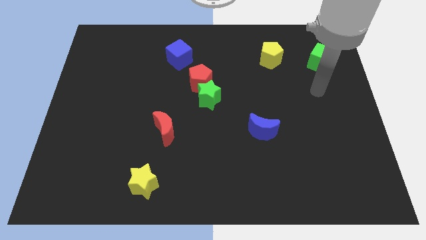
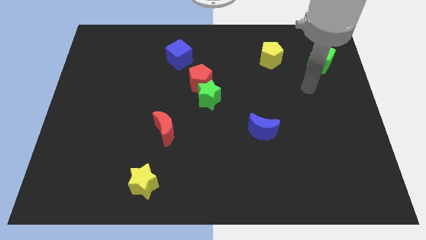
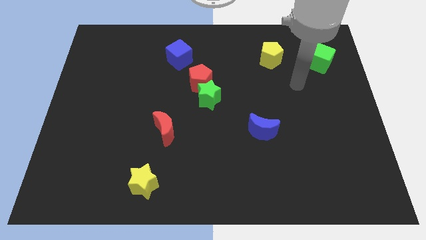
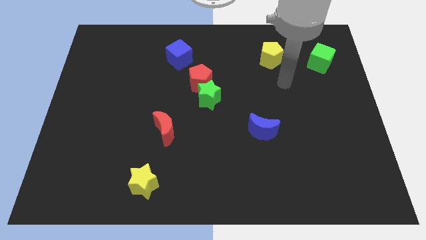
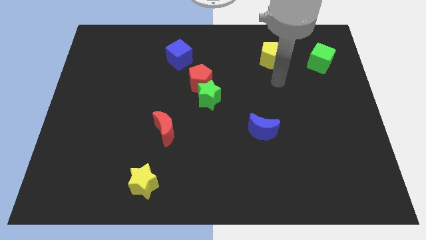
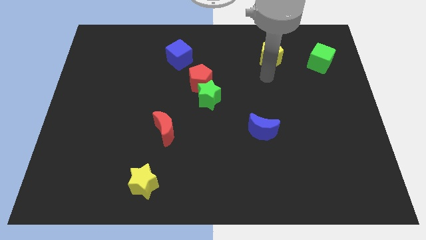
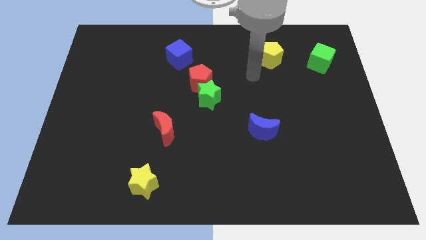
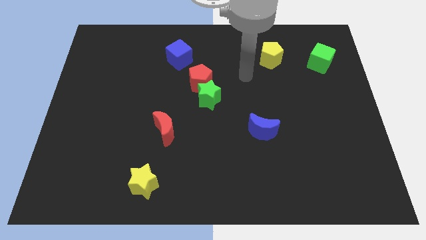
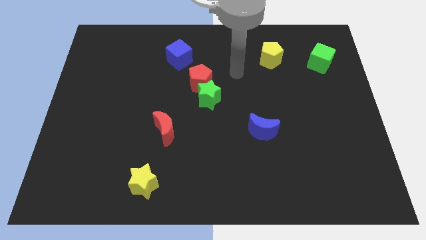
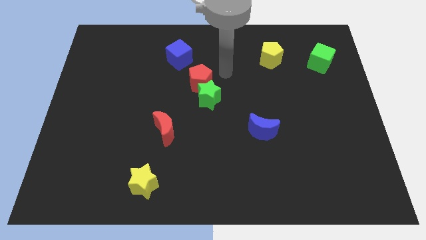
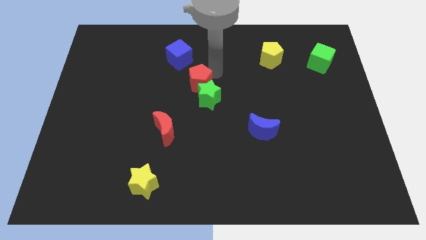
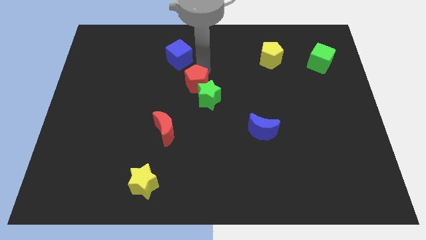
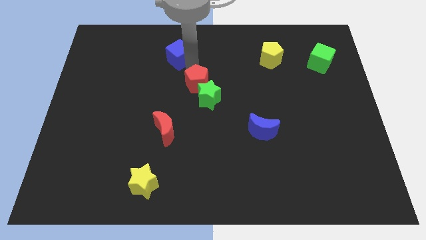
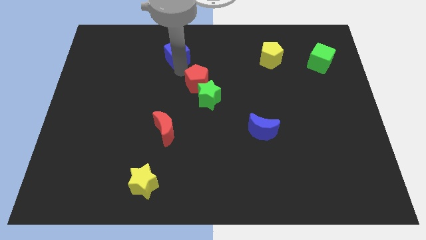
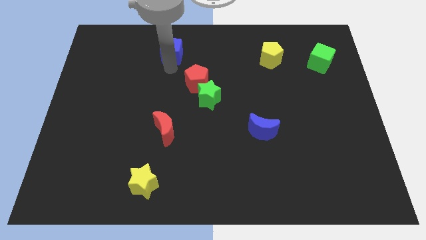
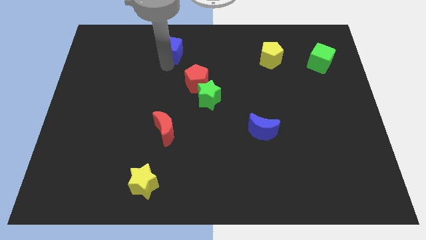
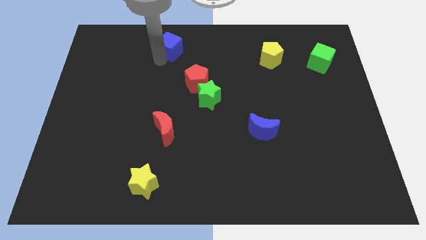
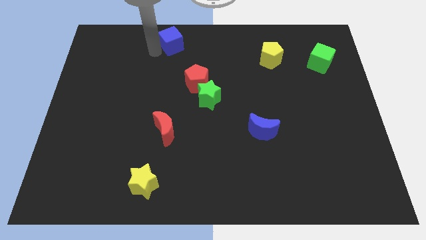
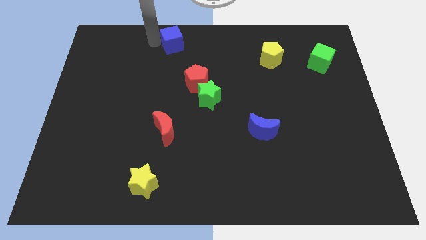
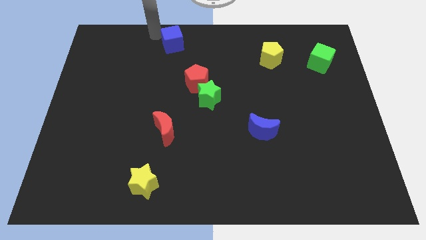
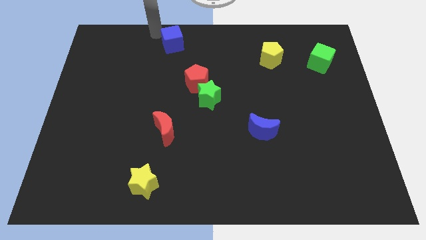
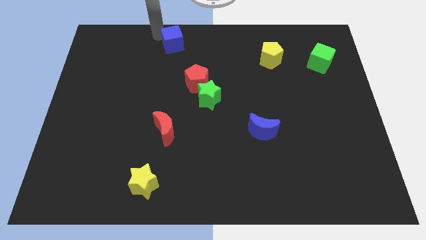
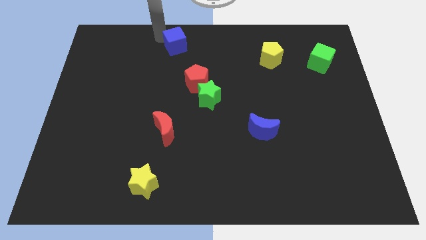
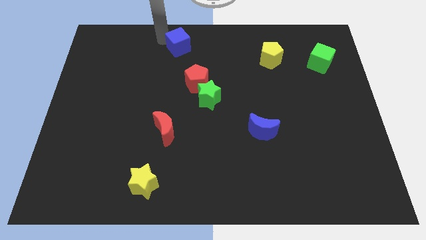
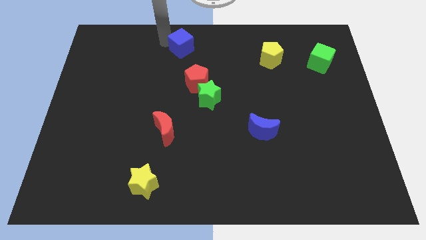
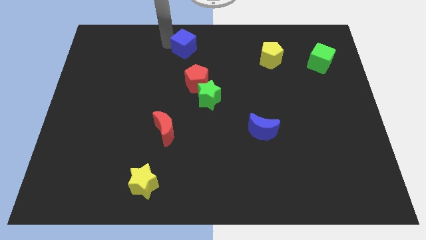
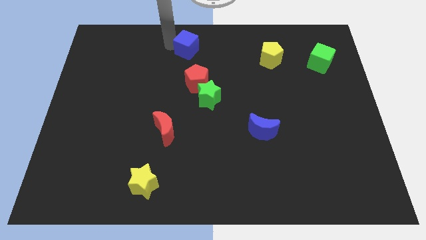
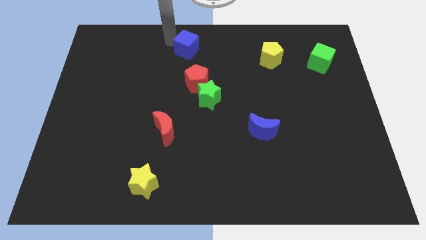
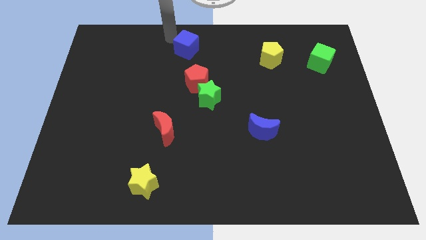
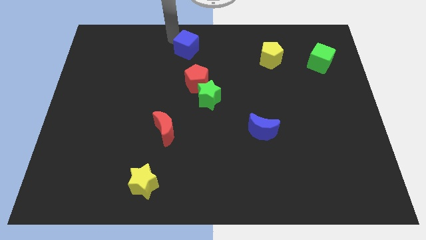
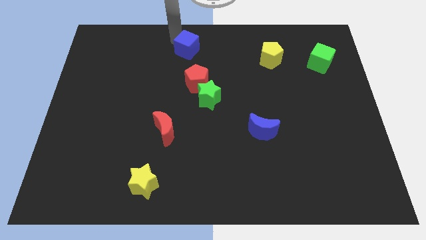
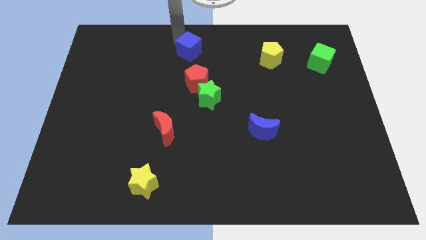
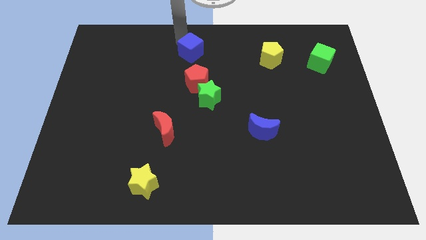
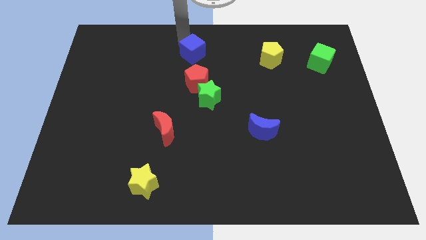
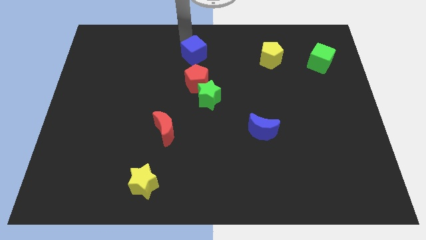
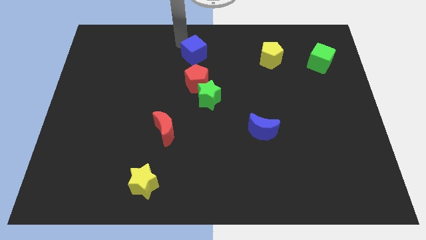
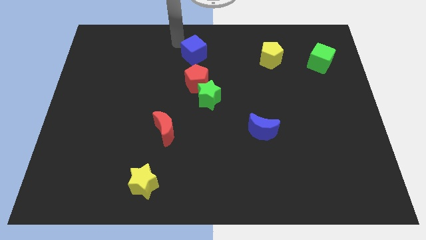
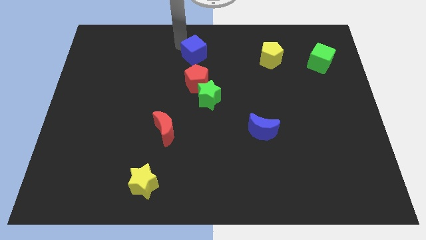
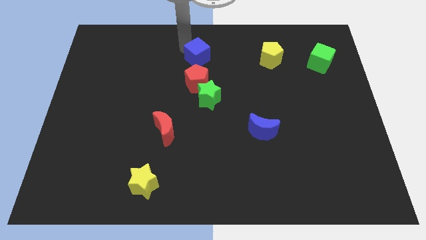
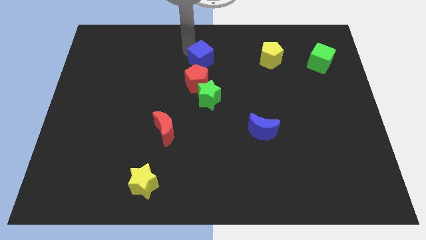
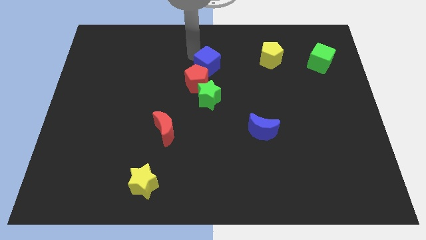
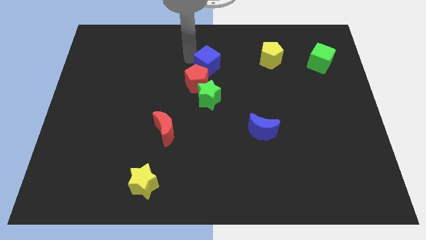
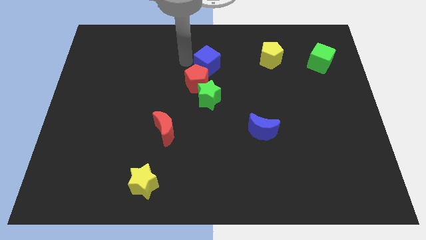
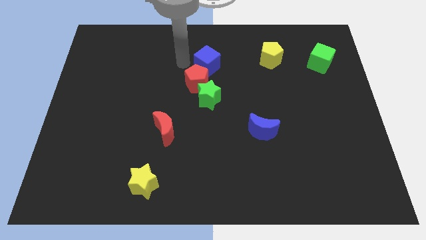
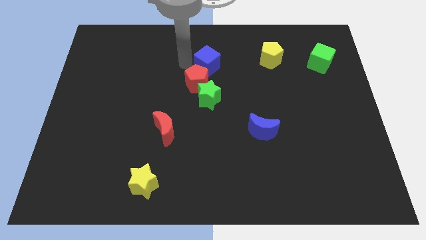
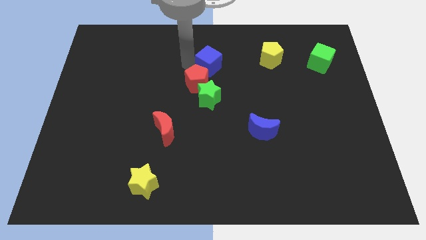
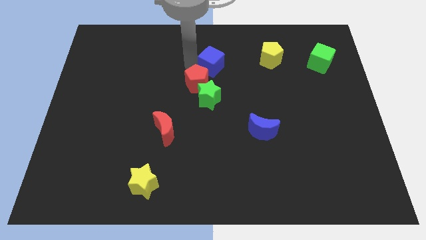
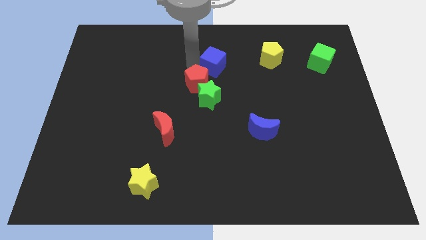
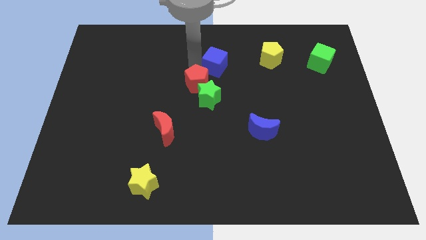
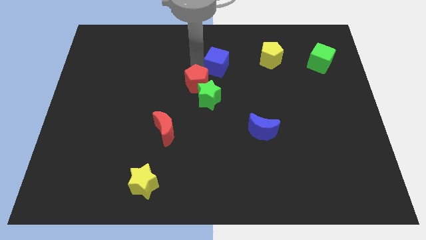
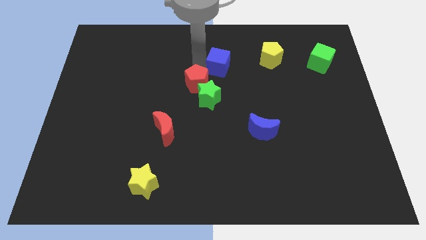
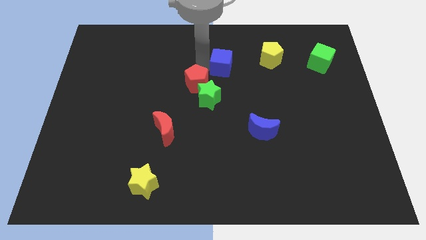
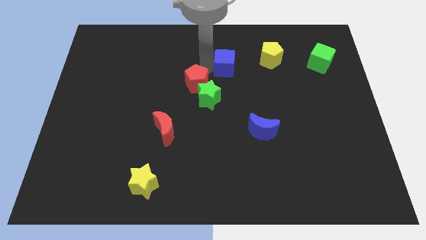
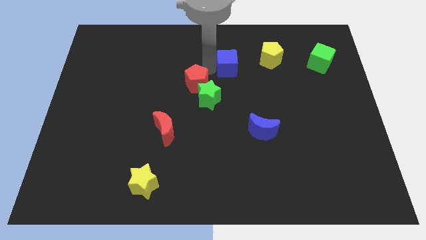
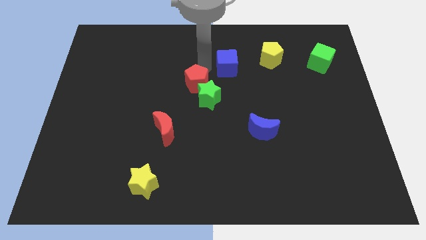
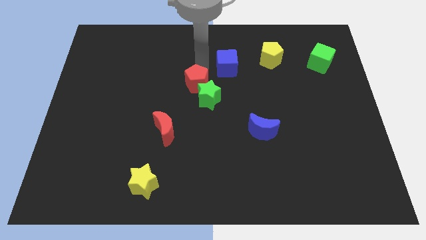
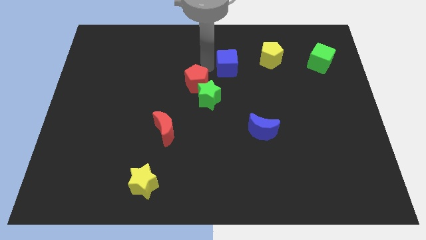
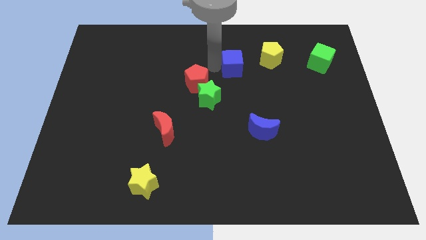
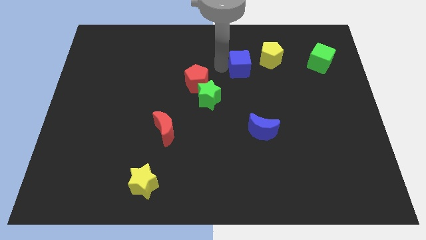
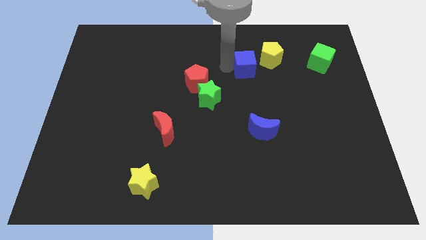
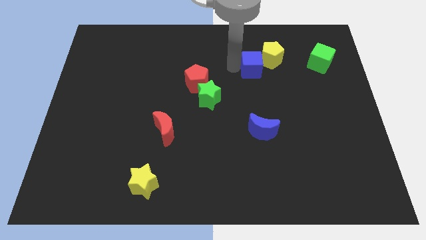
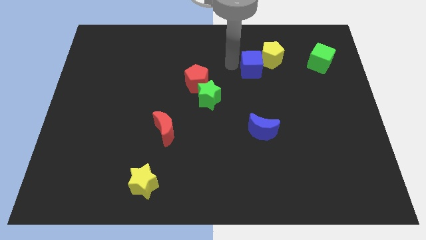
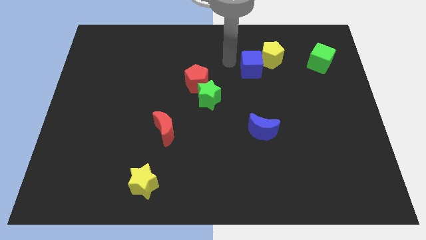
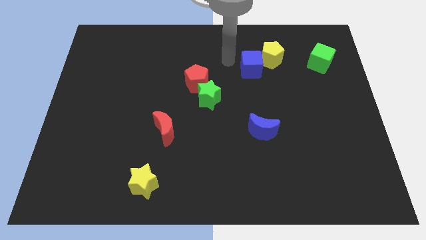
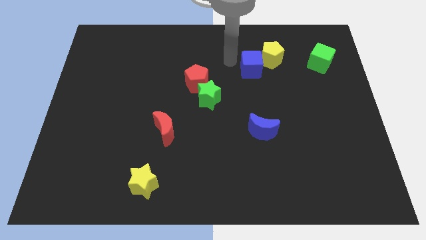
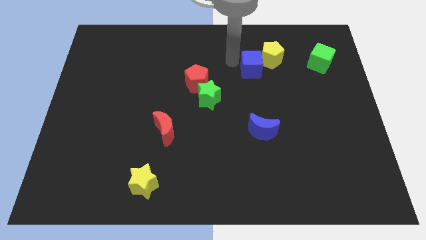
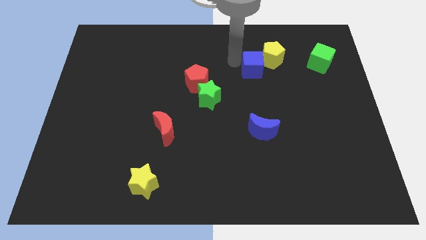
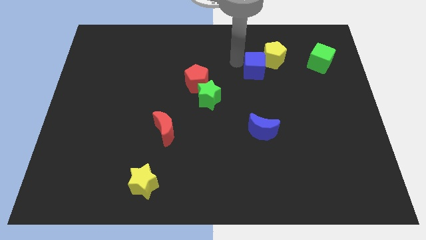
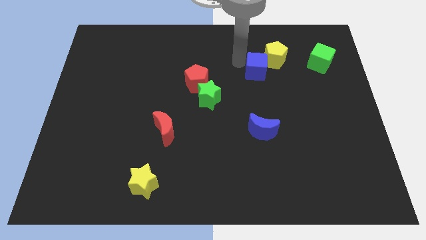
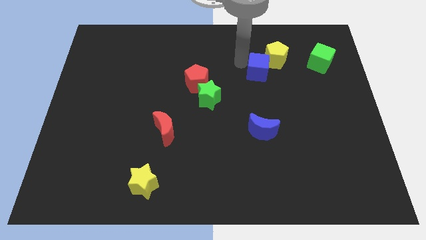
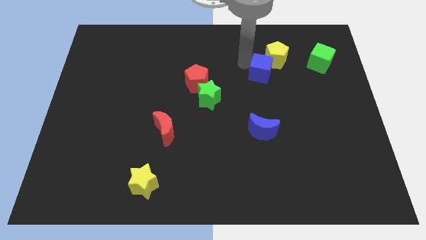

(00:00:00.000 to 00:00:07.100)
slide the blue cube to the right

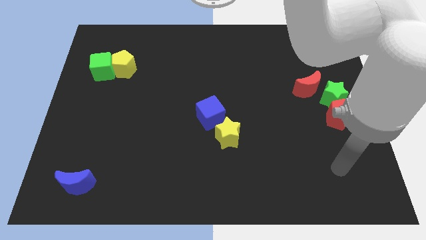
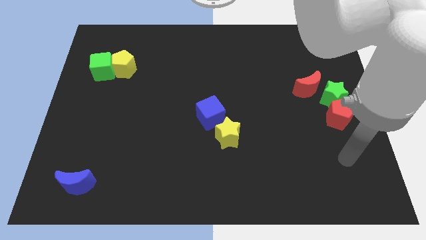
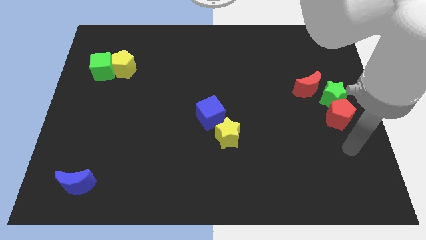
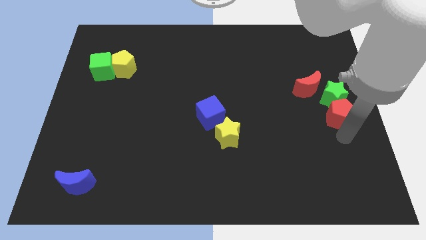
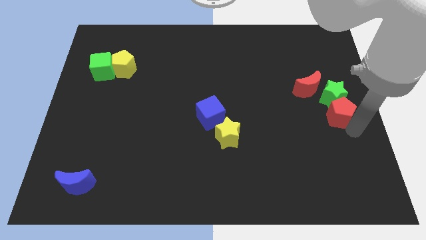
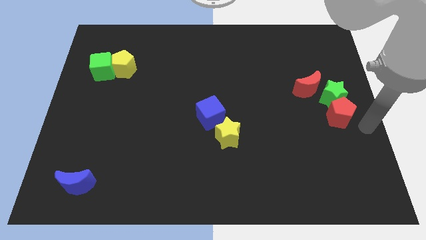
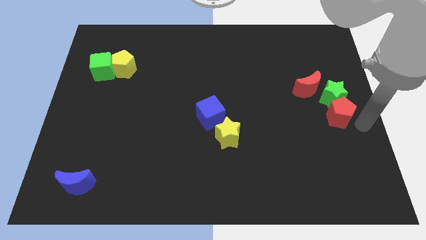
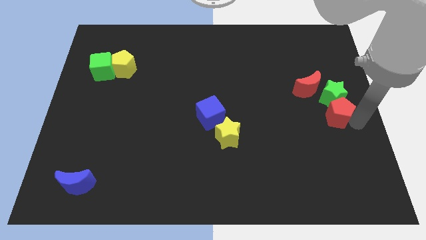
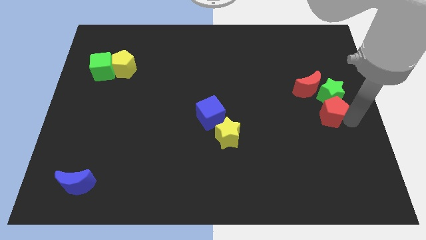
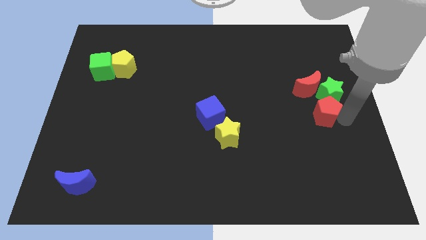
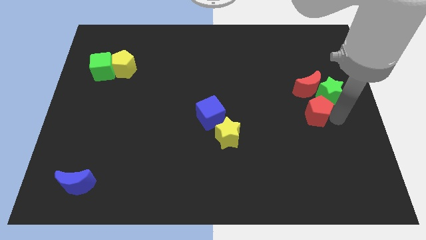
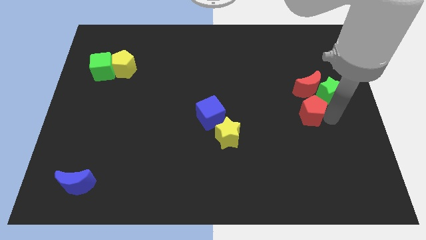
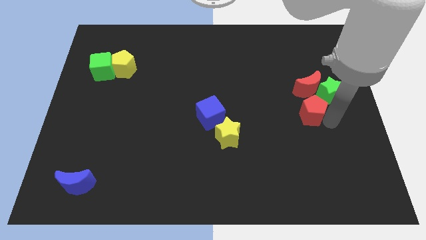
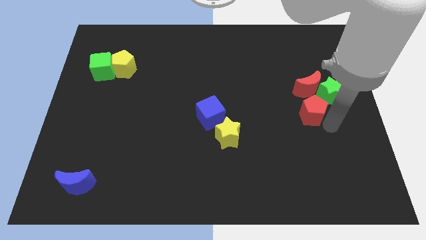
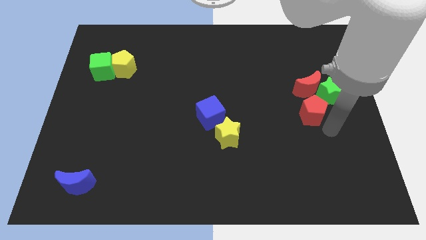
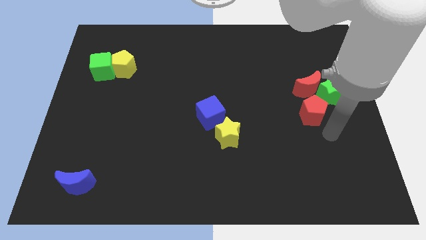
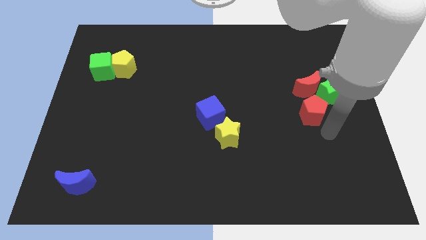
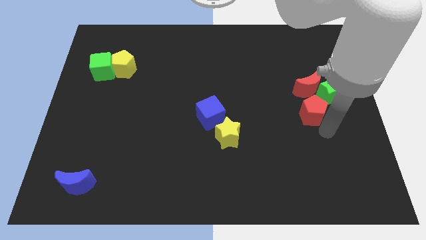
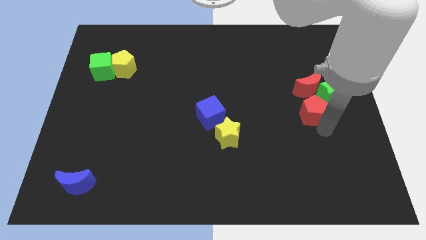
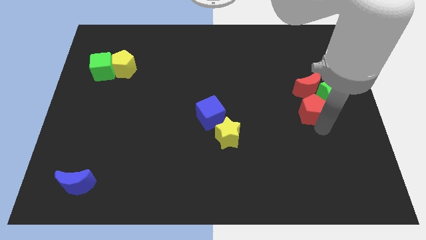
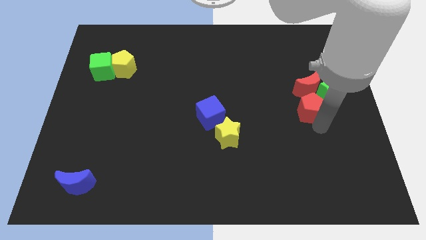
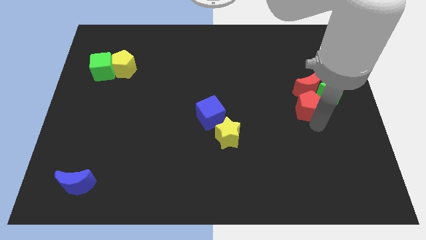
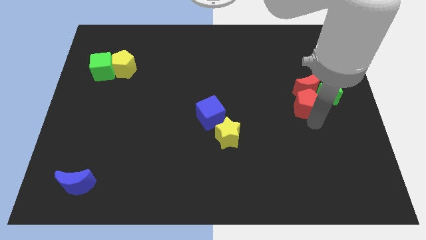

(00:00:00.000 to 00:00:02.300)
move the red pentagon a bit upwards and then to the left
